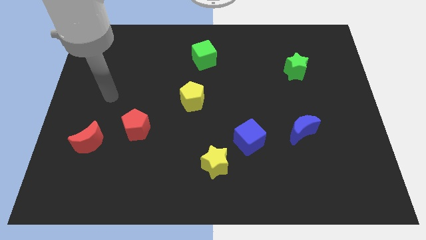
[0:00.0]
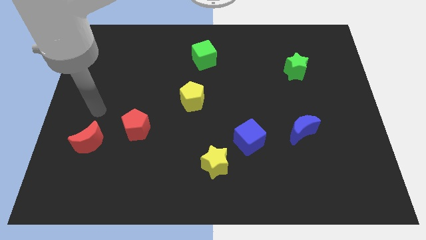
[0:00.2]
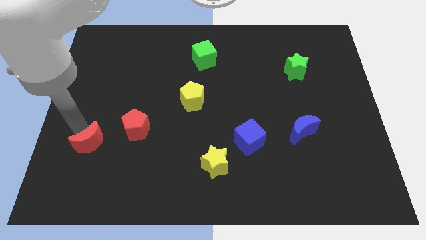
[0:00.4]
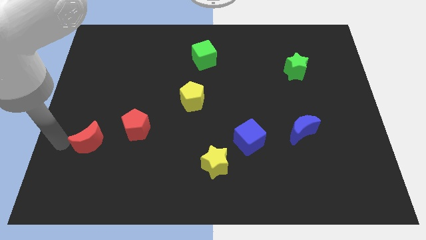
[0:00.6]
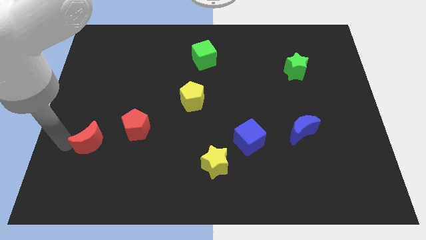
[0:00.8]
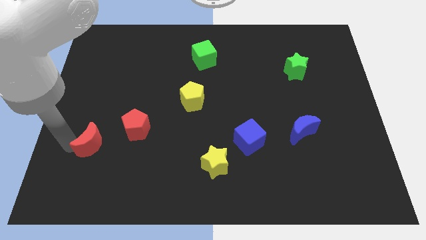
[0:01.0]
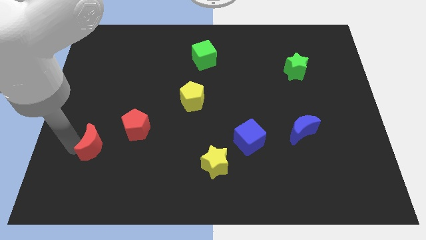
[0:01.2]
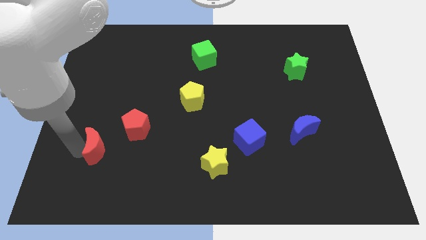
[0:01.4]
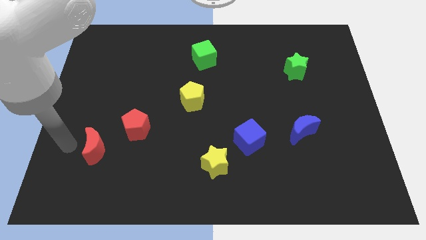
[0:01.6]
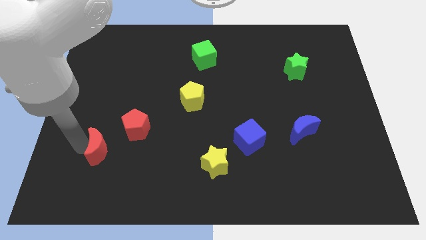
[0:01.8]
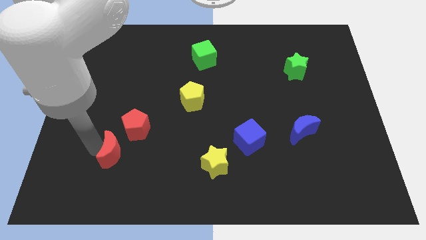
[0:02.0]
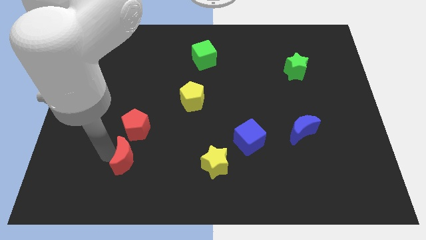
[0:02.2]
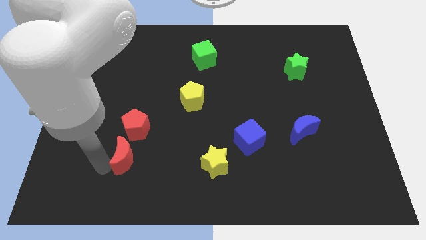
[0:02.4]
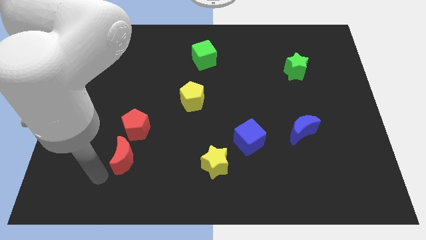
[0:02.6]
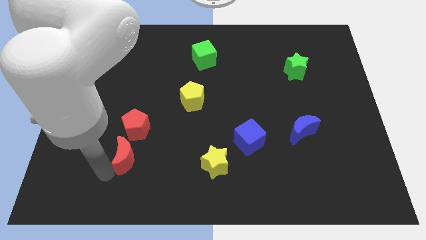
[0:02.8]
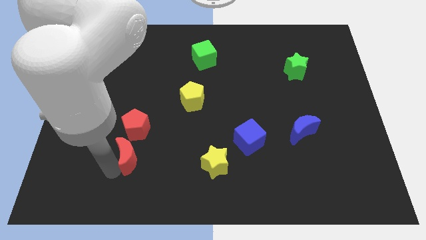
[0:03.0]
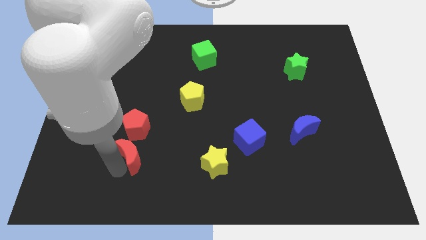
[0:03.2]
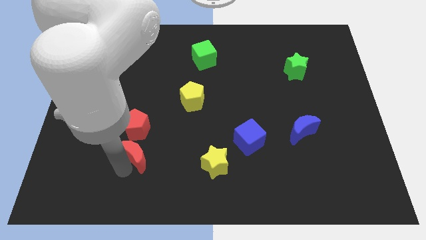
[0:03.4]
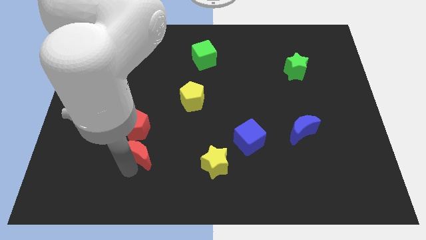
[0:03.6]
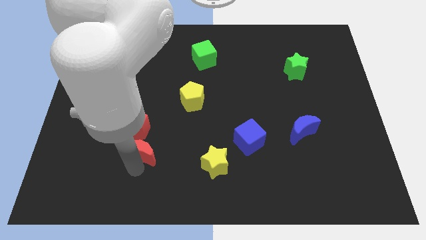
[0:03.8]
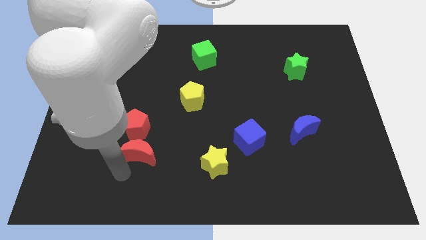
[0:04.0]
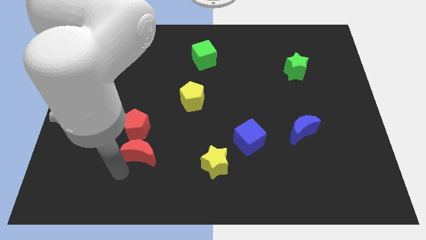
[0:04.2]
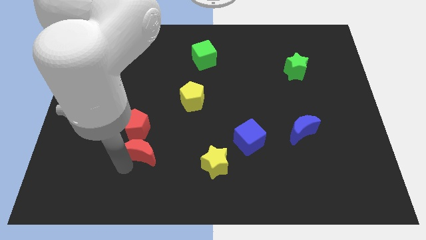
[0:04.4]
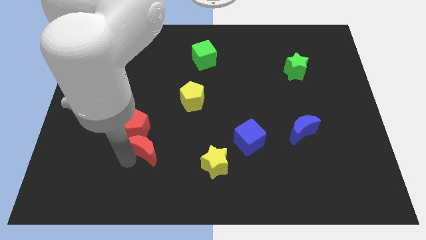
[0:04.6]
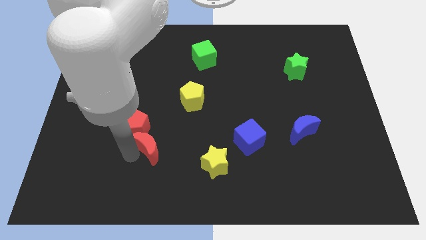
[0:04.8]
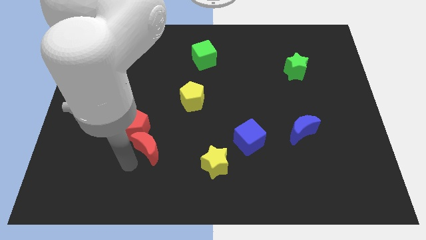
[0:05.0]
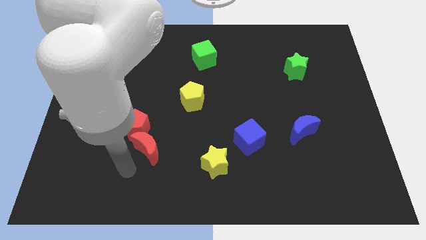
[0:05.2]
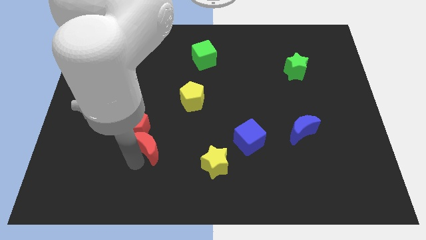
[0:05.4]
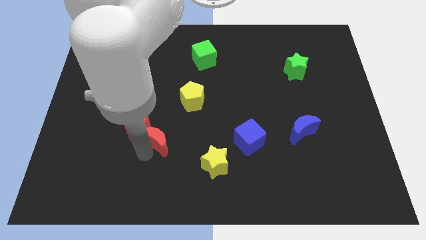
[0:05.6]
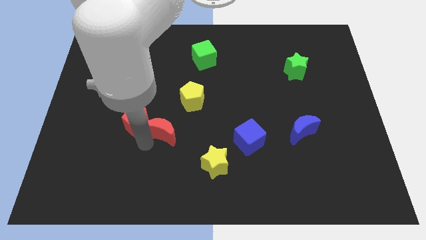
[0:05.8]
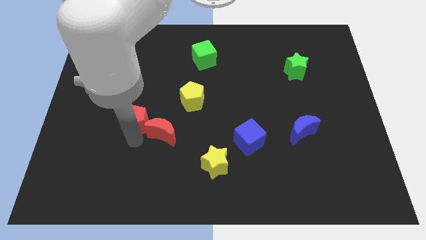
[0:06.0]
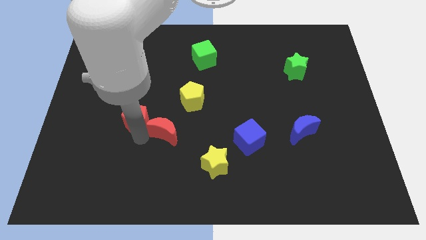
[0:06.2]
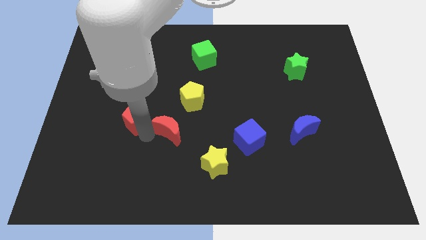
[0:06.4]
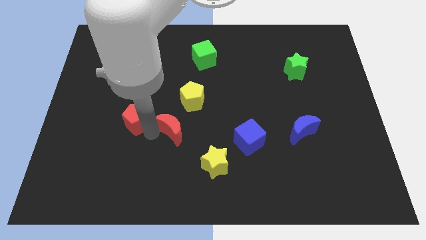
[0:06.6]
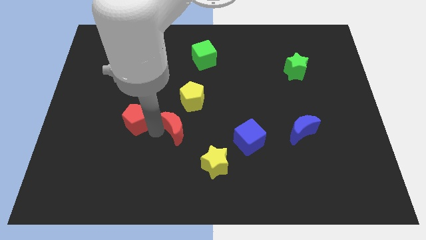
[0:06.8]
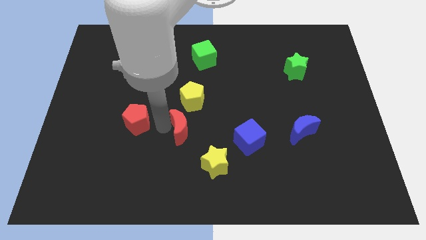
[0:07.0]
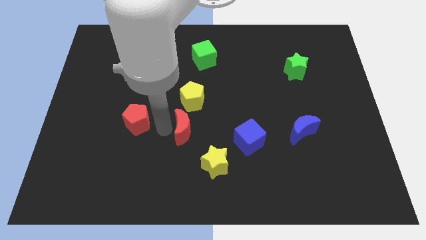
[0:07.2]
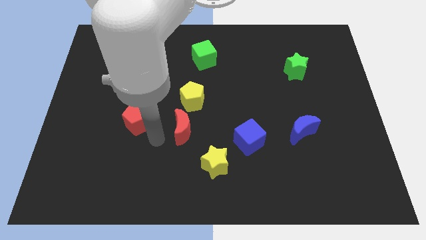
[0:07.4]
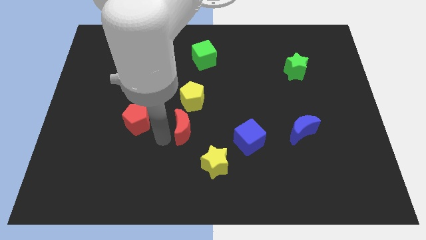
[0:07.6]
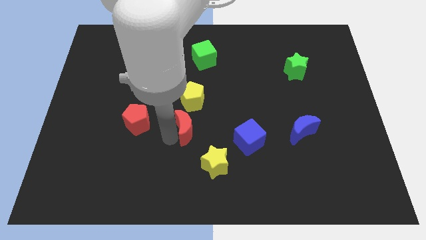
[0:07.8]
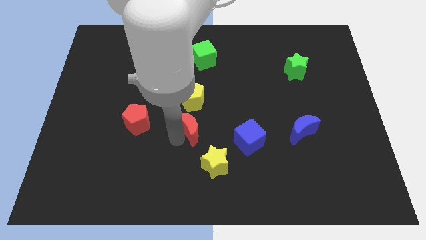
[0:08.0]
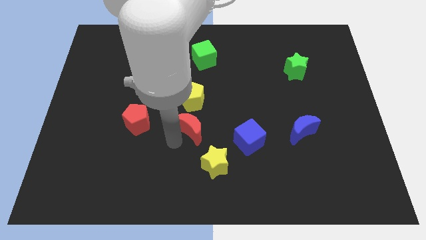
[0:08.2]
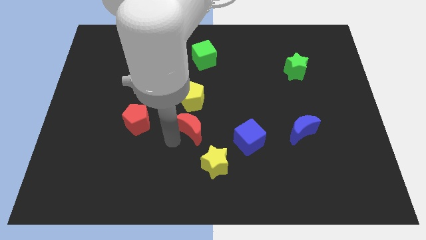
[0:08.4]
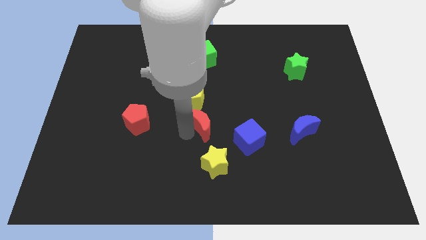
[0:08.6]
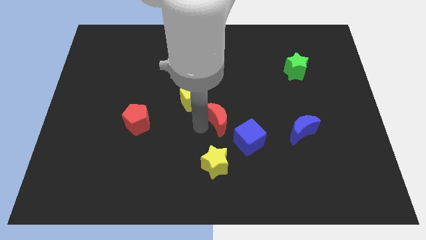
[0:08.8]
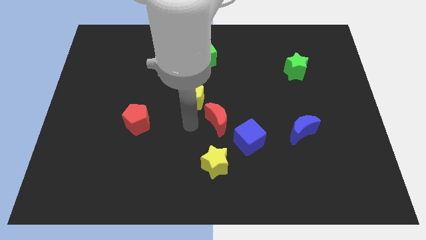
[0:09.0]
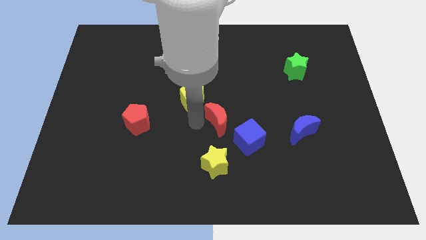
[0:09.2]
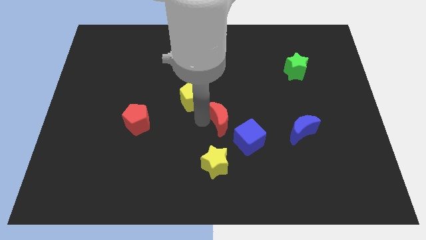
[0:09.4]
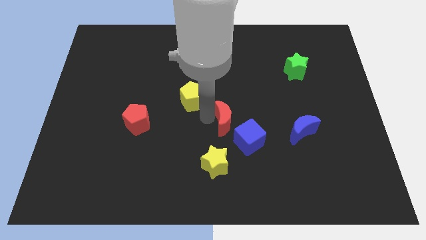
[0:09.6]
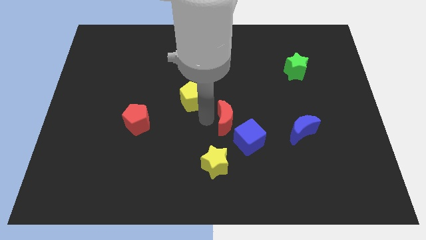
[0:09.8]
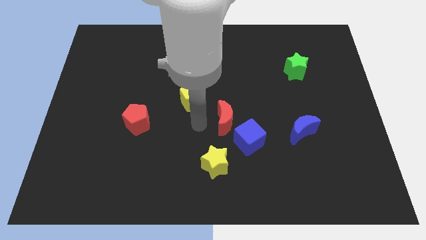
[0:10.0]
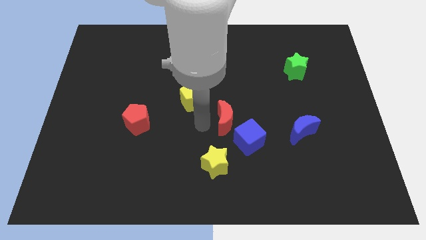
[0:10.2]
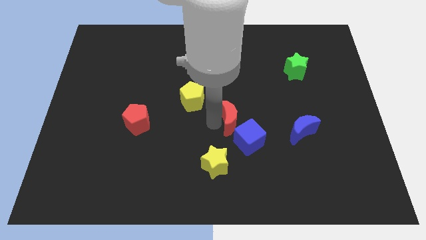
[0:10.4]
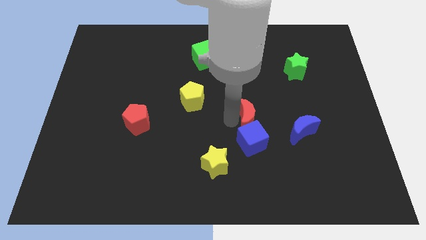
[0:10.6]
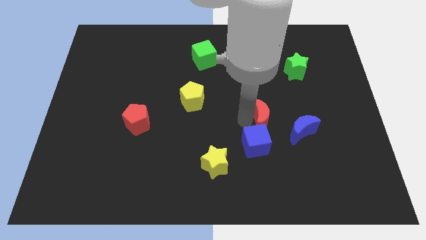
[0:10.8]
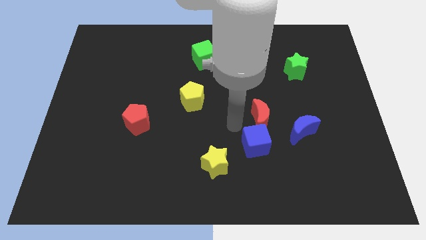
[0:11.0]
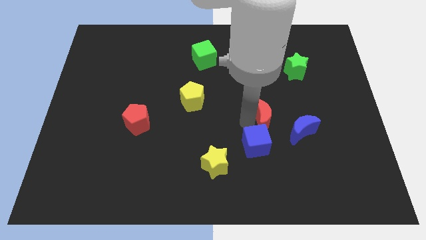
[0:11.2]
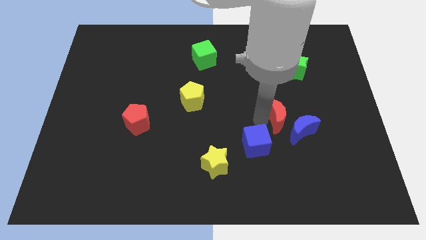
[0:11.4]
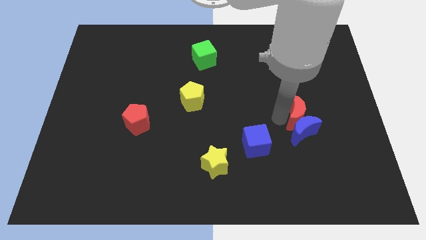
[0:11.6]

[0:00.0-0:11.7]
push the red moon to the top right of the blue moon

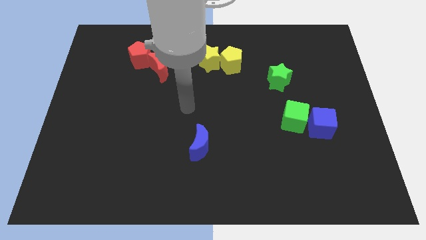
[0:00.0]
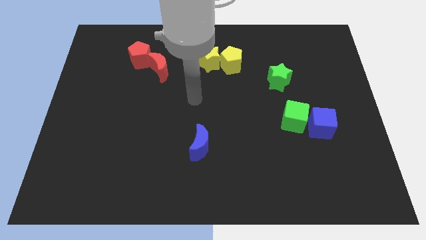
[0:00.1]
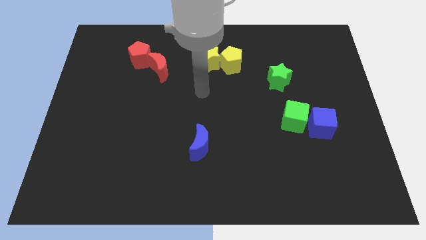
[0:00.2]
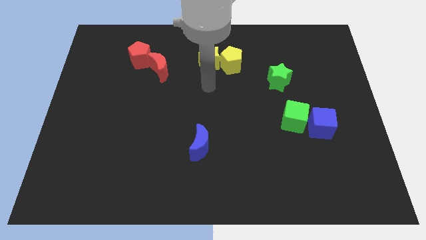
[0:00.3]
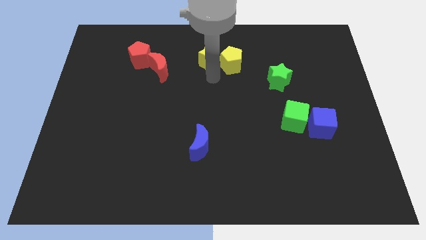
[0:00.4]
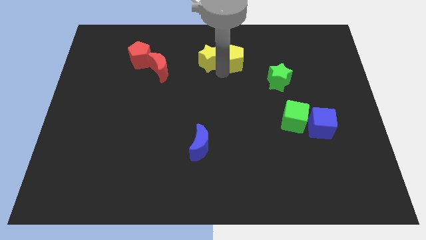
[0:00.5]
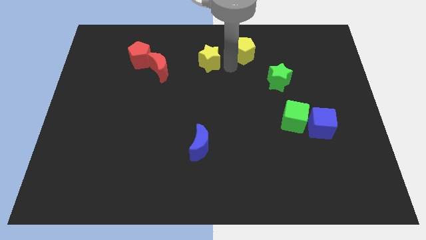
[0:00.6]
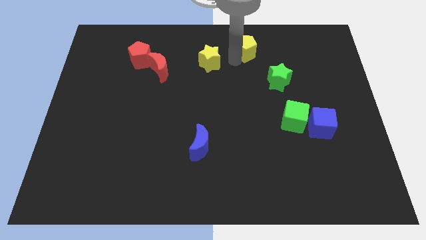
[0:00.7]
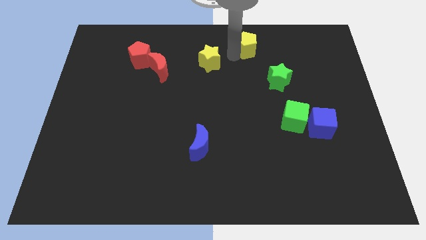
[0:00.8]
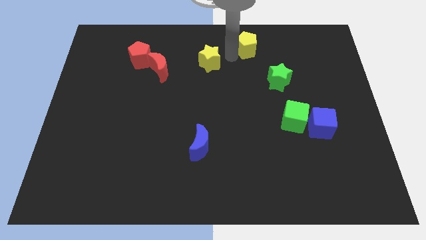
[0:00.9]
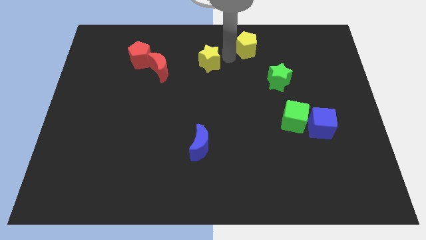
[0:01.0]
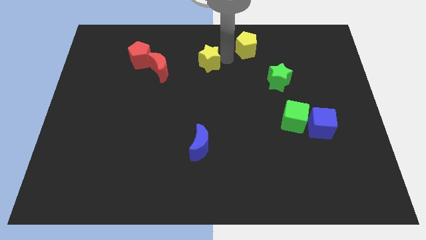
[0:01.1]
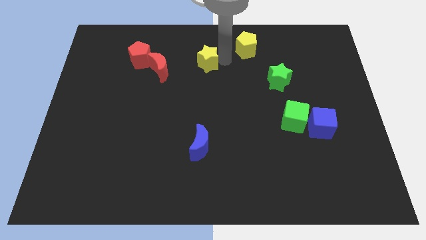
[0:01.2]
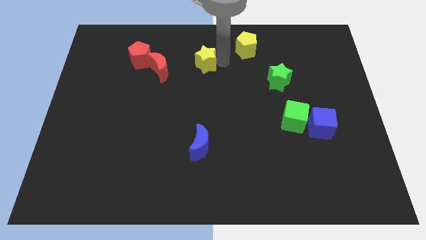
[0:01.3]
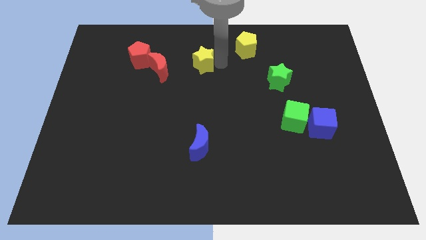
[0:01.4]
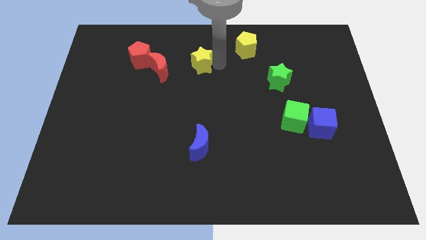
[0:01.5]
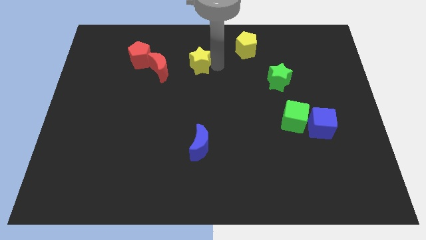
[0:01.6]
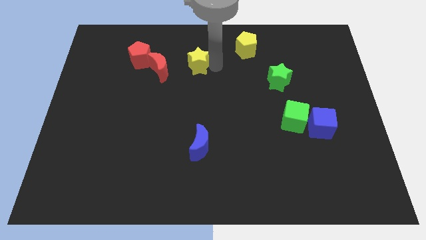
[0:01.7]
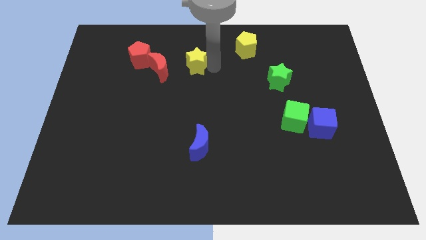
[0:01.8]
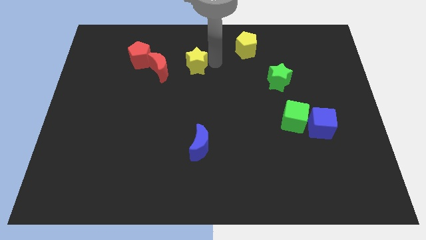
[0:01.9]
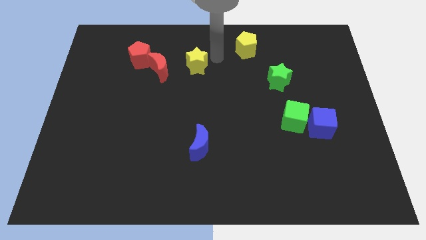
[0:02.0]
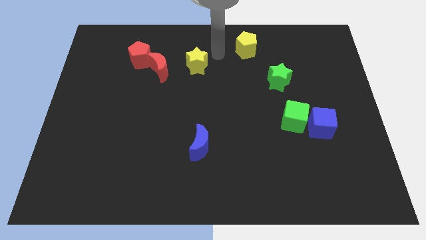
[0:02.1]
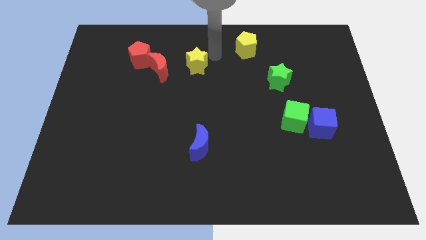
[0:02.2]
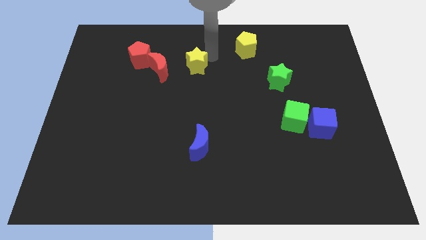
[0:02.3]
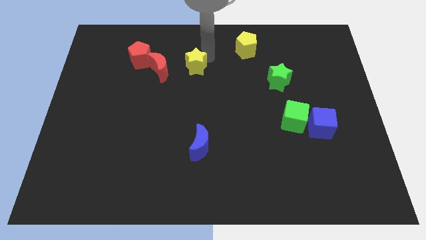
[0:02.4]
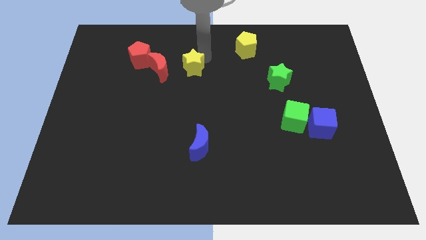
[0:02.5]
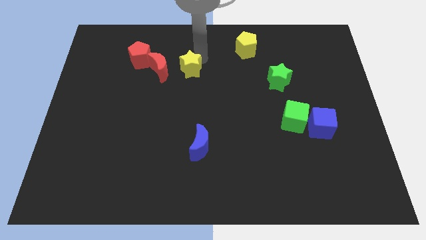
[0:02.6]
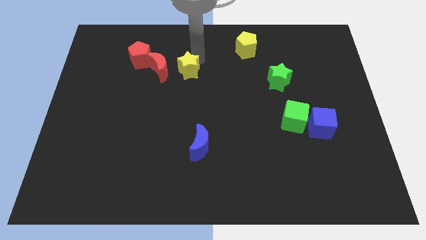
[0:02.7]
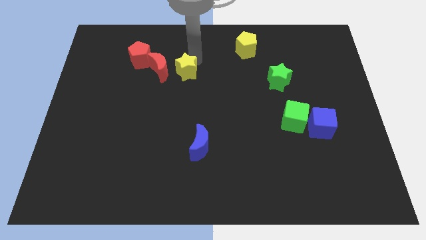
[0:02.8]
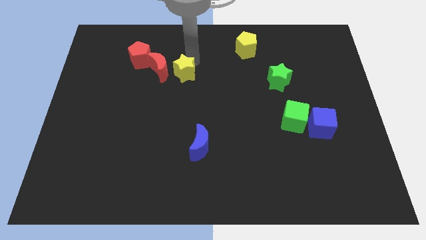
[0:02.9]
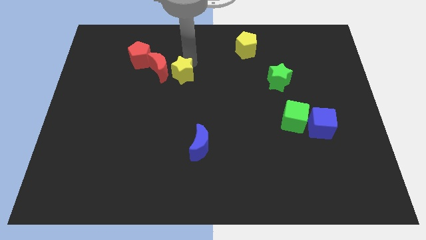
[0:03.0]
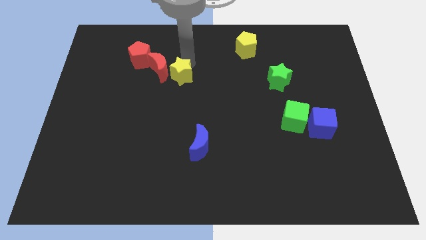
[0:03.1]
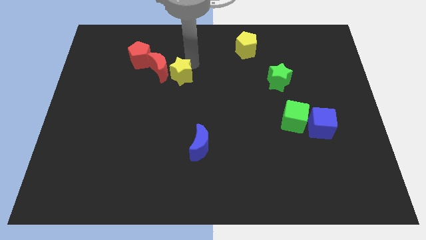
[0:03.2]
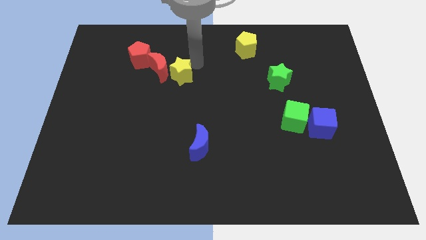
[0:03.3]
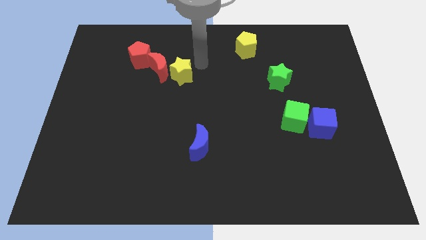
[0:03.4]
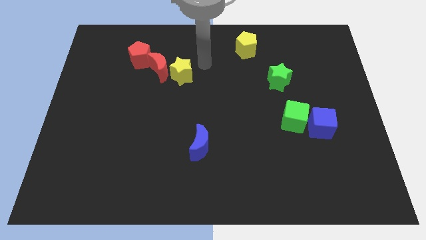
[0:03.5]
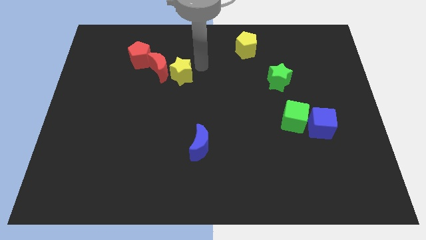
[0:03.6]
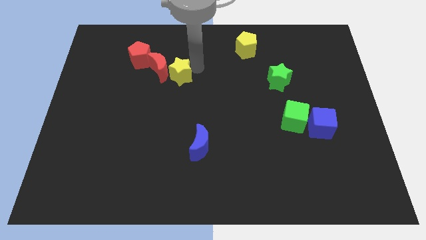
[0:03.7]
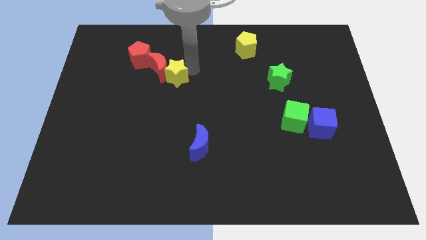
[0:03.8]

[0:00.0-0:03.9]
push the yellow star to the bottom right side of the red pentagon
